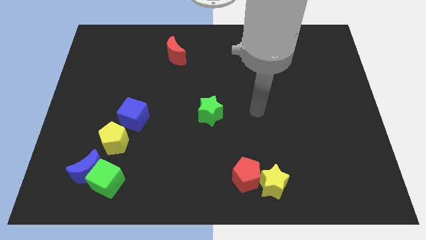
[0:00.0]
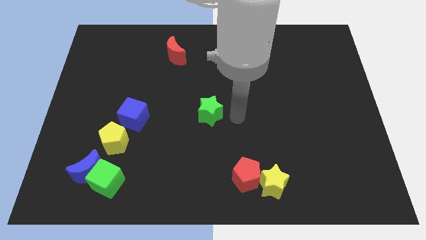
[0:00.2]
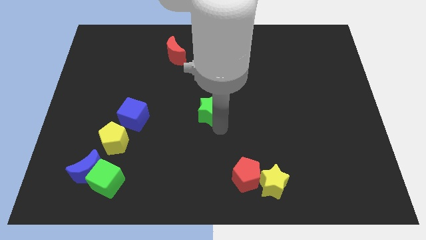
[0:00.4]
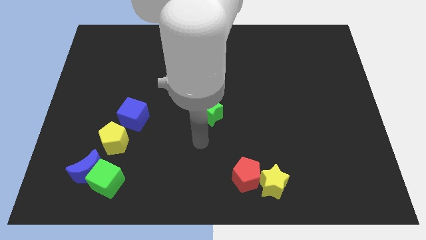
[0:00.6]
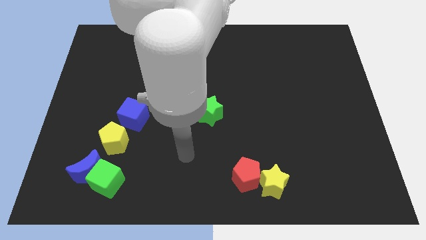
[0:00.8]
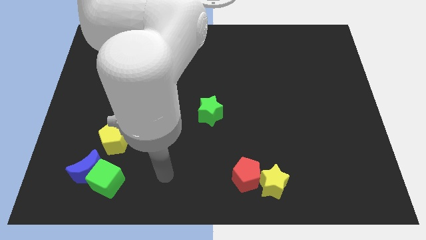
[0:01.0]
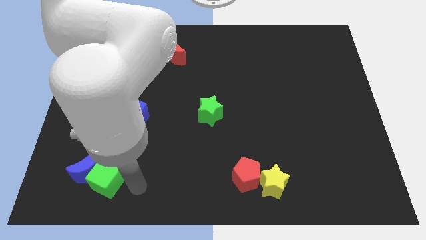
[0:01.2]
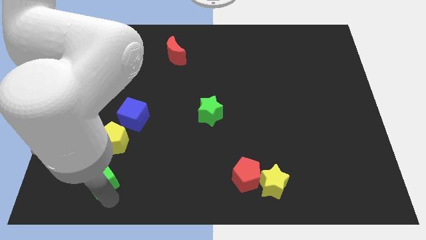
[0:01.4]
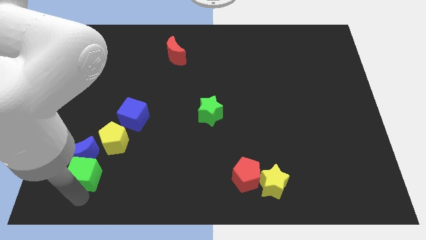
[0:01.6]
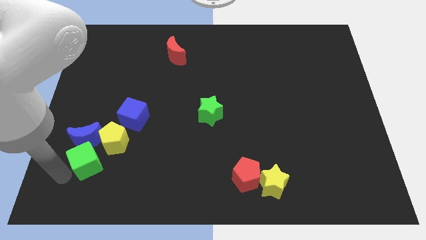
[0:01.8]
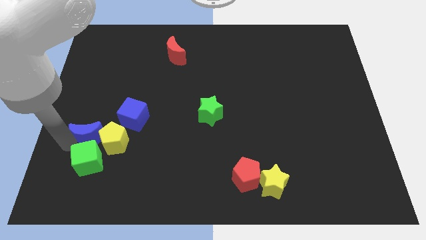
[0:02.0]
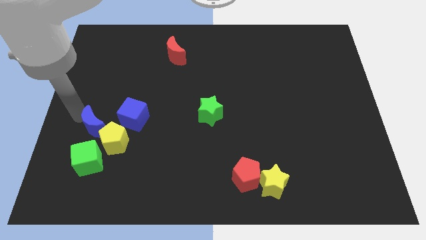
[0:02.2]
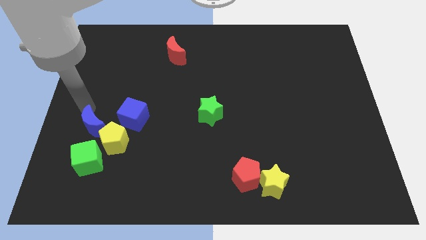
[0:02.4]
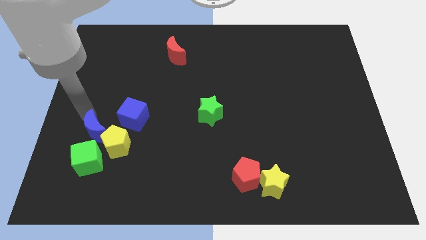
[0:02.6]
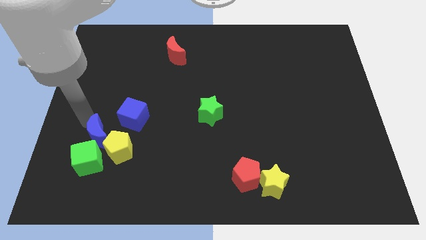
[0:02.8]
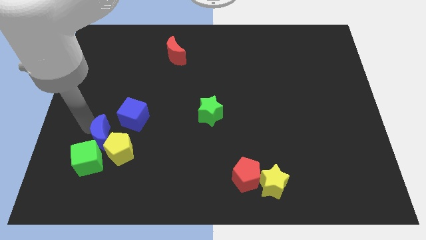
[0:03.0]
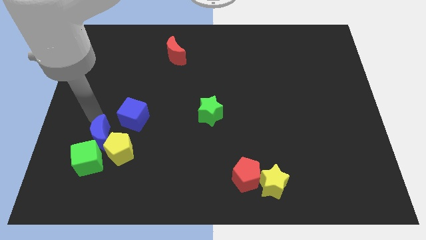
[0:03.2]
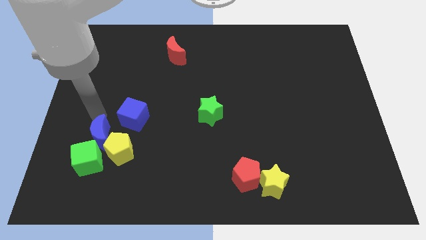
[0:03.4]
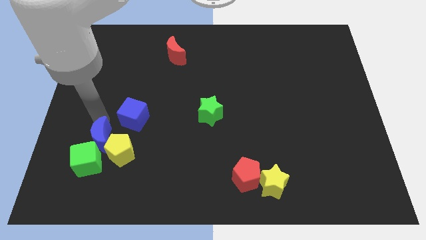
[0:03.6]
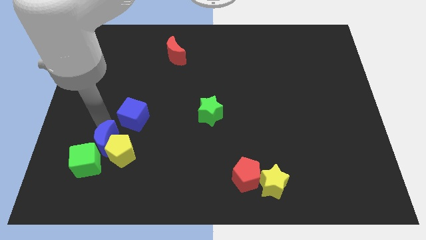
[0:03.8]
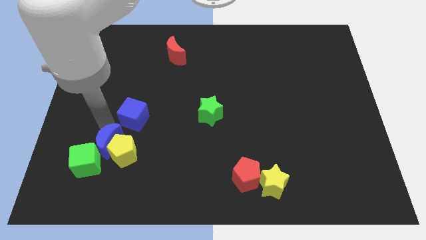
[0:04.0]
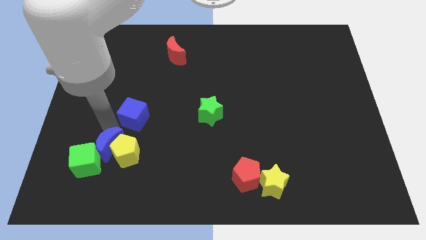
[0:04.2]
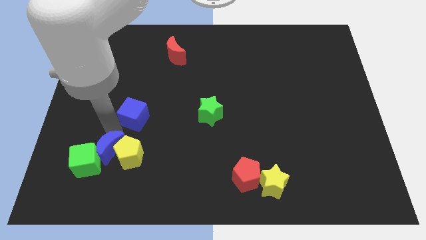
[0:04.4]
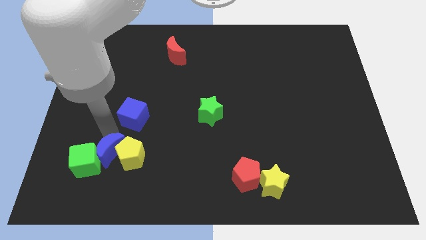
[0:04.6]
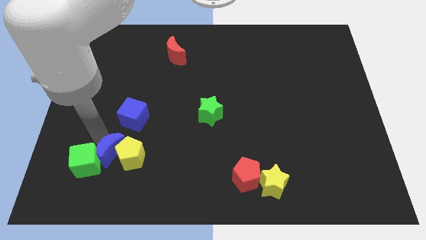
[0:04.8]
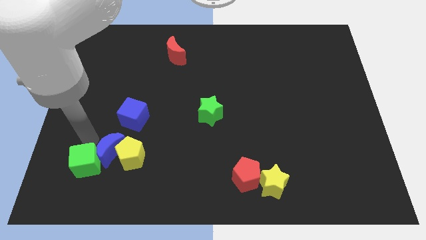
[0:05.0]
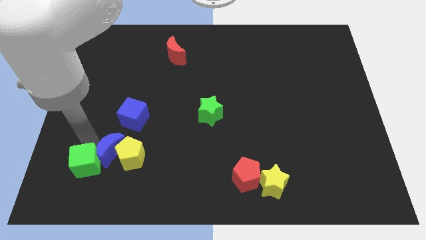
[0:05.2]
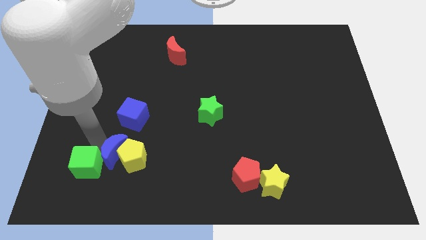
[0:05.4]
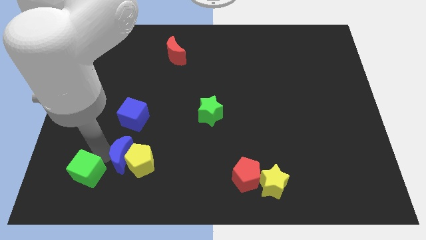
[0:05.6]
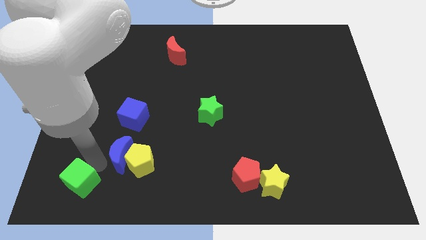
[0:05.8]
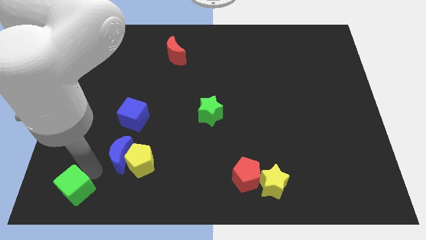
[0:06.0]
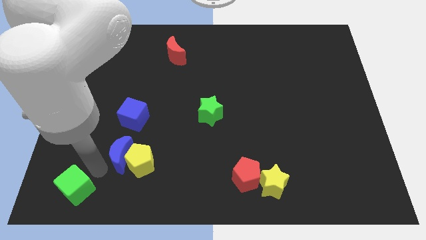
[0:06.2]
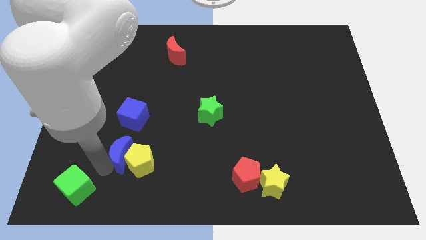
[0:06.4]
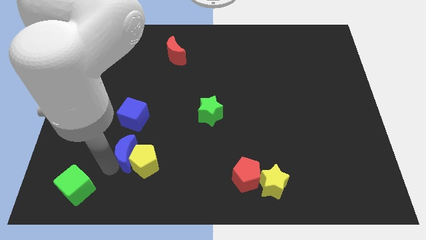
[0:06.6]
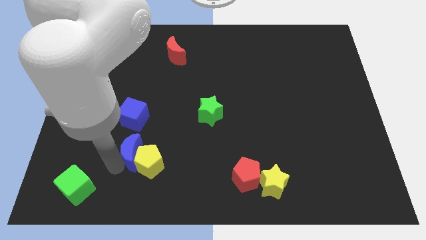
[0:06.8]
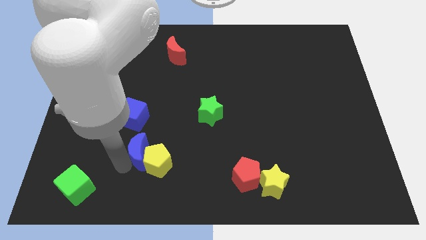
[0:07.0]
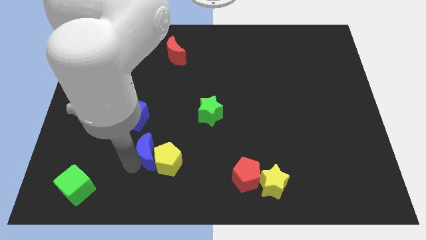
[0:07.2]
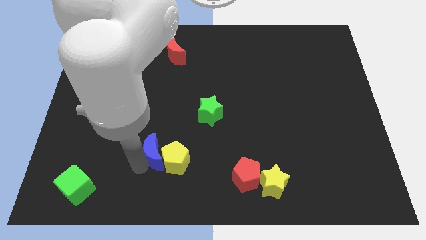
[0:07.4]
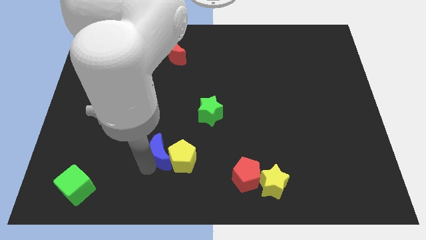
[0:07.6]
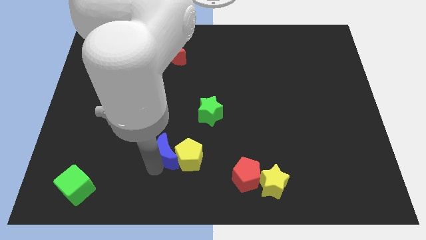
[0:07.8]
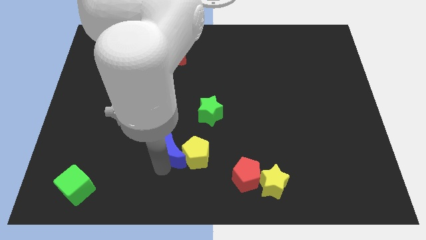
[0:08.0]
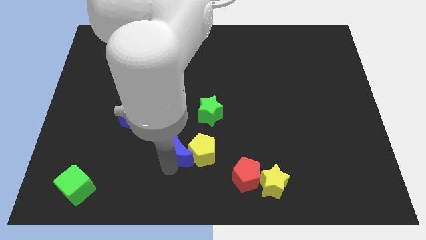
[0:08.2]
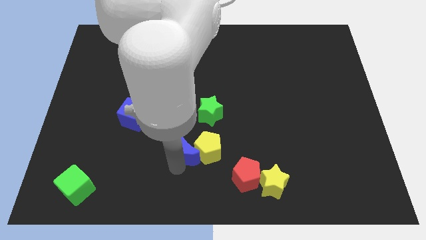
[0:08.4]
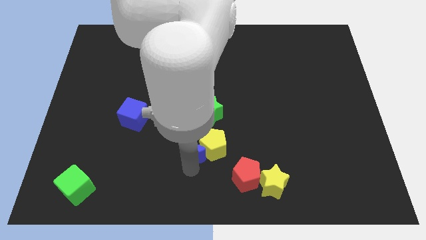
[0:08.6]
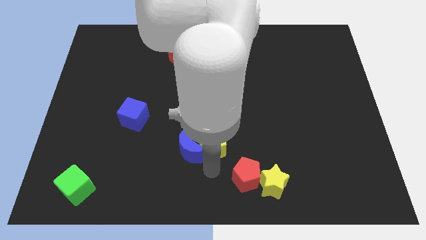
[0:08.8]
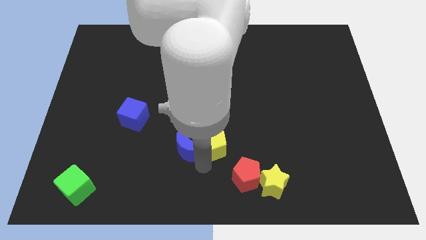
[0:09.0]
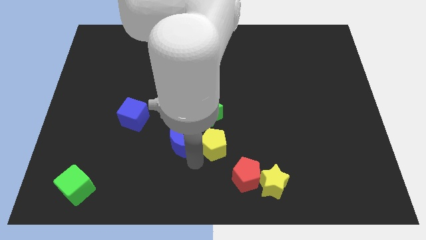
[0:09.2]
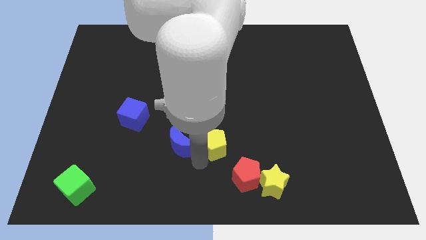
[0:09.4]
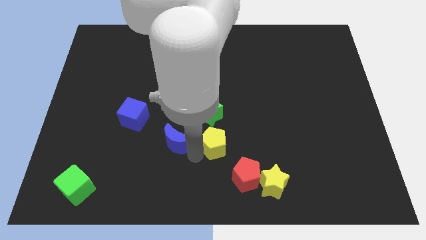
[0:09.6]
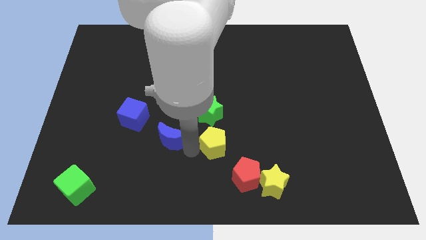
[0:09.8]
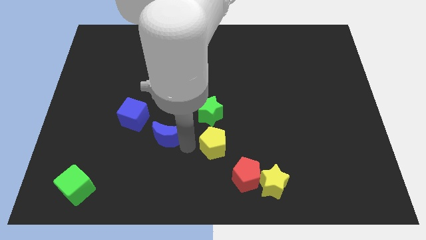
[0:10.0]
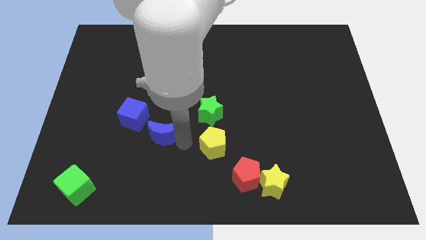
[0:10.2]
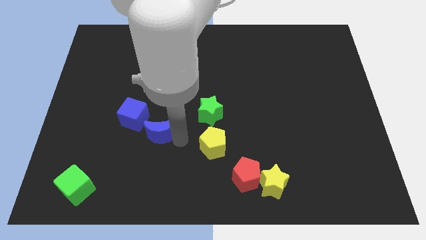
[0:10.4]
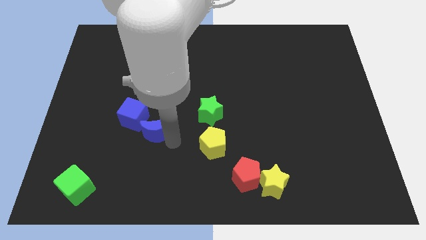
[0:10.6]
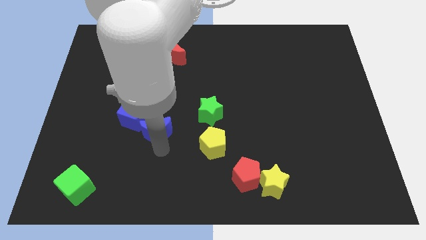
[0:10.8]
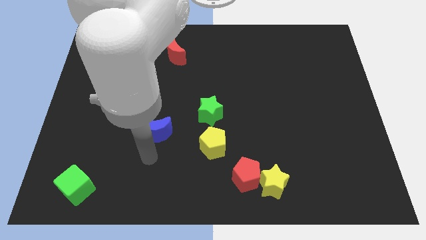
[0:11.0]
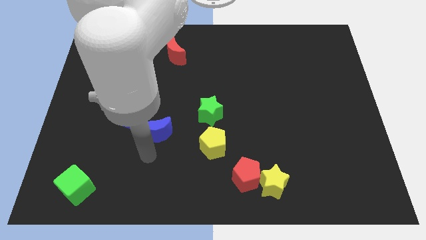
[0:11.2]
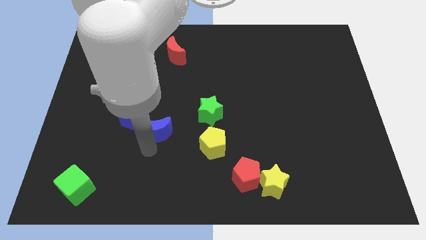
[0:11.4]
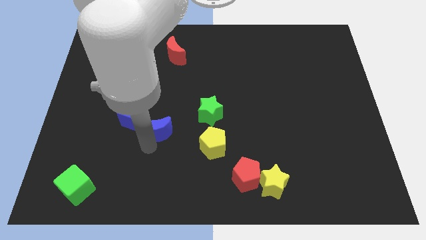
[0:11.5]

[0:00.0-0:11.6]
slide the blue moon left of the green star

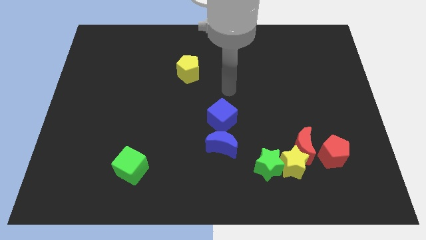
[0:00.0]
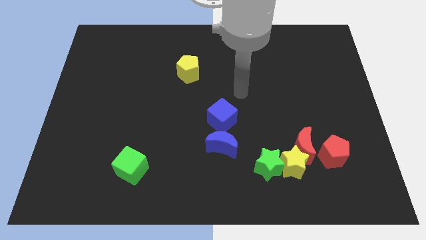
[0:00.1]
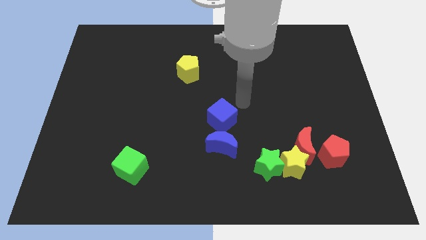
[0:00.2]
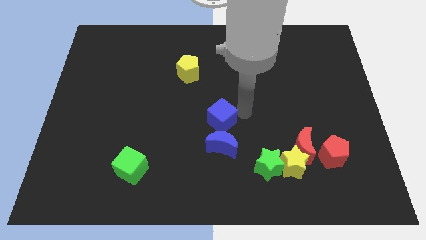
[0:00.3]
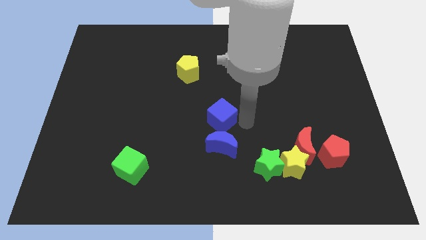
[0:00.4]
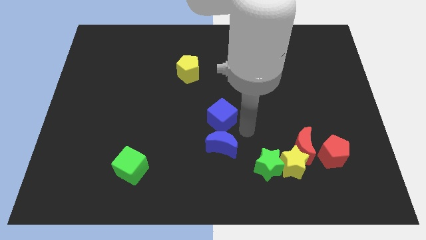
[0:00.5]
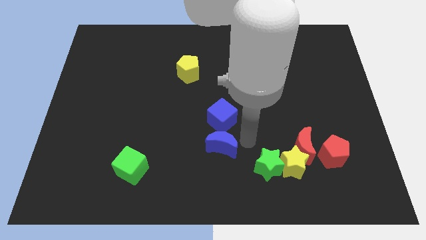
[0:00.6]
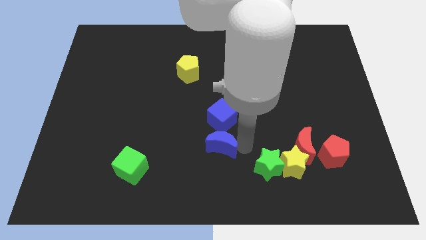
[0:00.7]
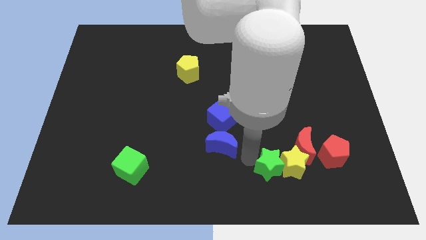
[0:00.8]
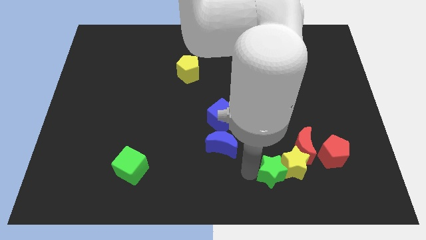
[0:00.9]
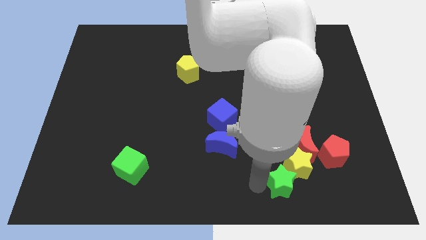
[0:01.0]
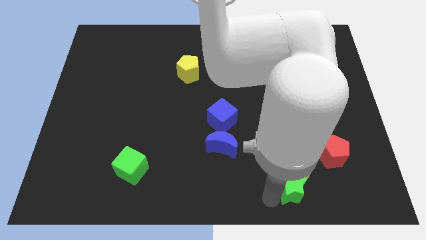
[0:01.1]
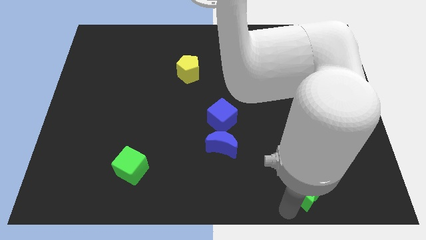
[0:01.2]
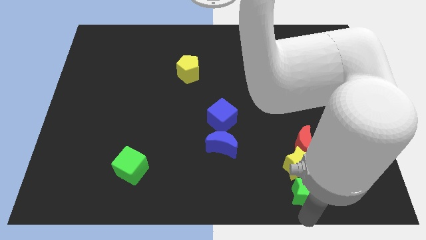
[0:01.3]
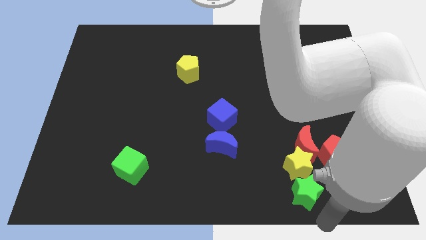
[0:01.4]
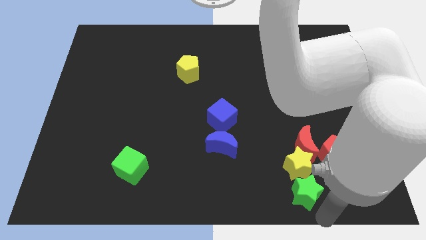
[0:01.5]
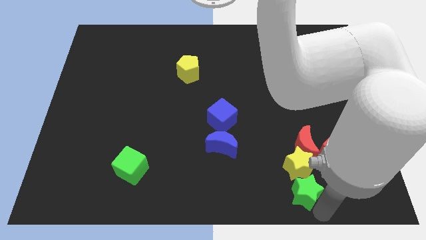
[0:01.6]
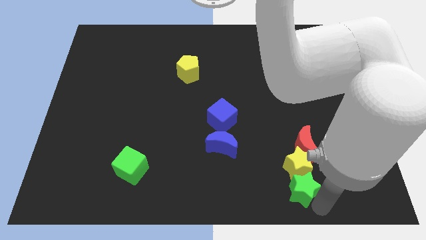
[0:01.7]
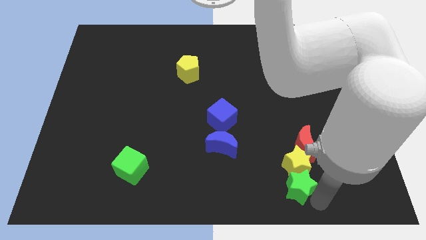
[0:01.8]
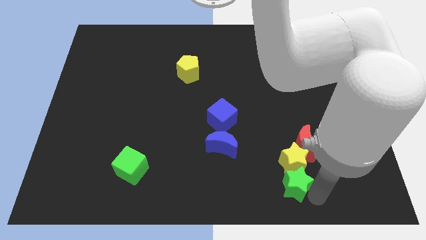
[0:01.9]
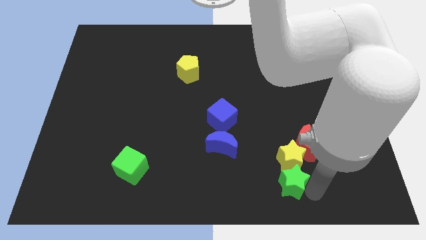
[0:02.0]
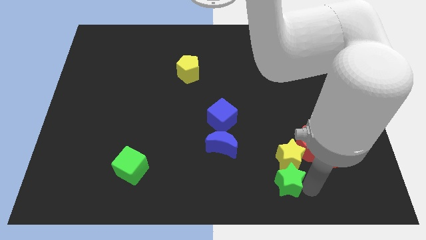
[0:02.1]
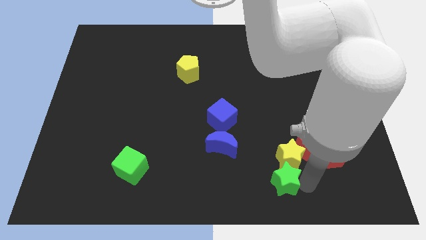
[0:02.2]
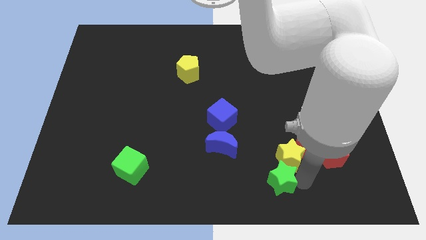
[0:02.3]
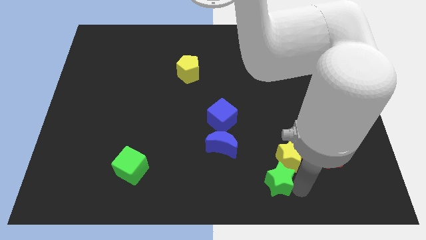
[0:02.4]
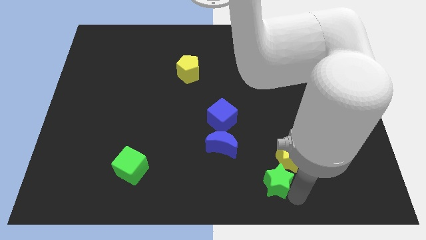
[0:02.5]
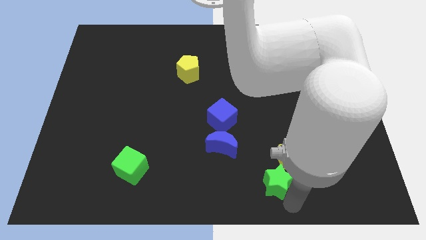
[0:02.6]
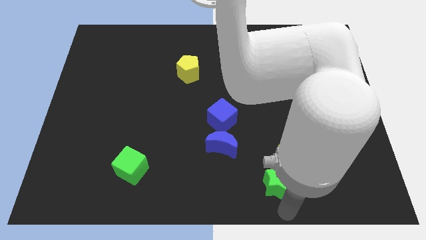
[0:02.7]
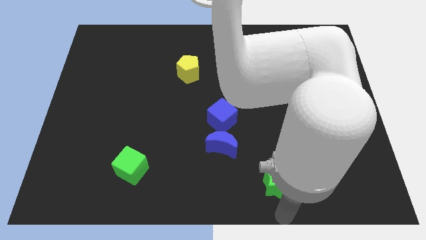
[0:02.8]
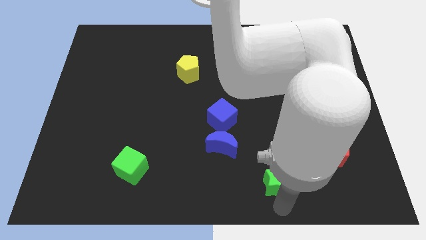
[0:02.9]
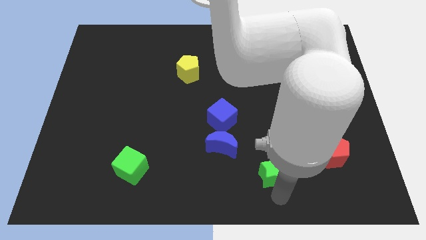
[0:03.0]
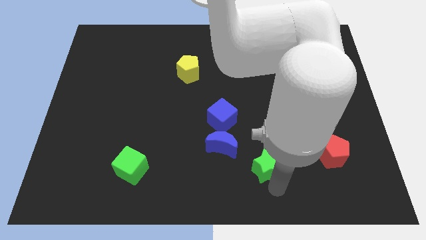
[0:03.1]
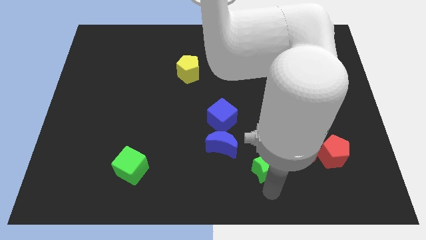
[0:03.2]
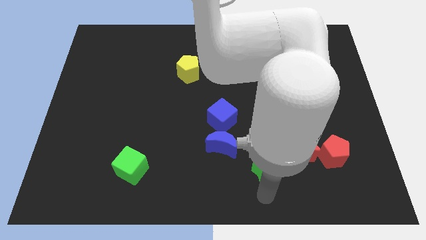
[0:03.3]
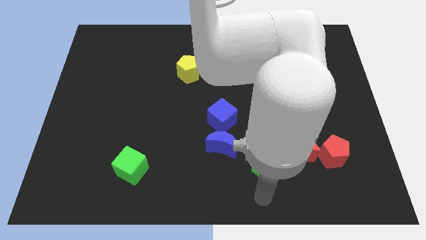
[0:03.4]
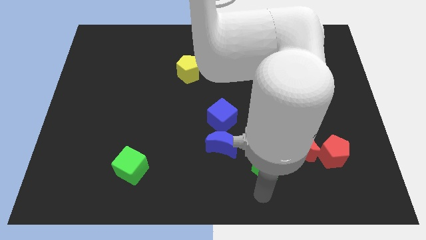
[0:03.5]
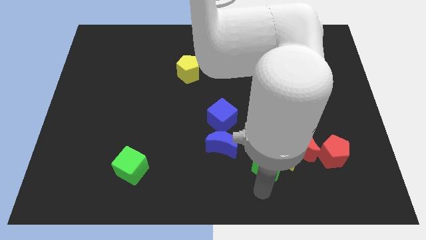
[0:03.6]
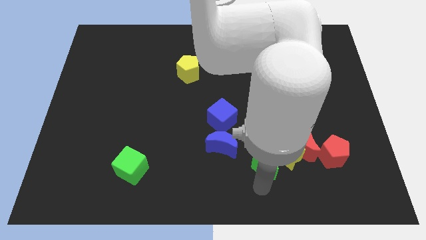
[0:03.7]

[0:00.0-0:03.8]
put the green star right of the blue moon
